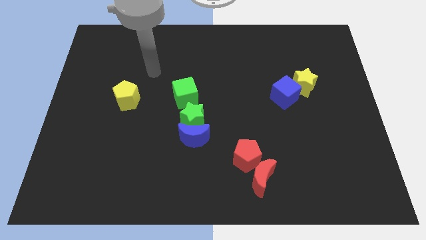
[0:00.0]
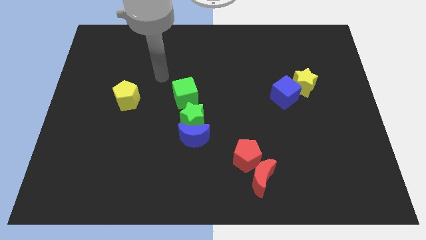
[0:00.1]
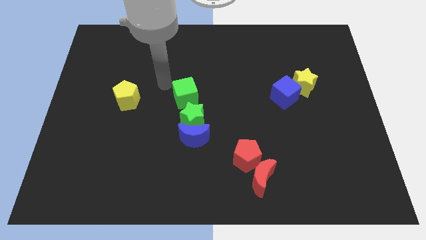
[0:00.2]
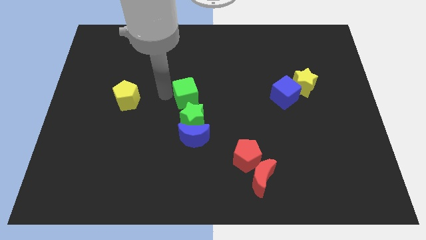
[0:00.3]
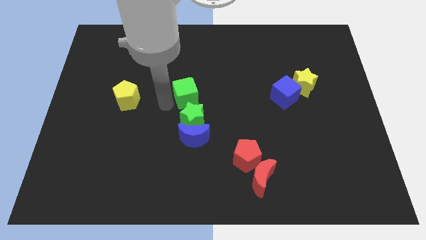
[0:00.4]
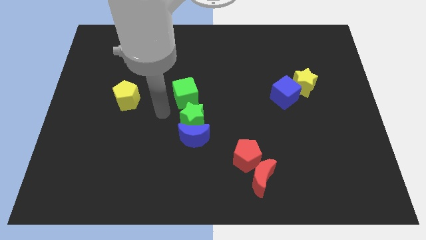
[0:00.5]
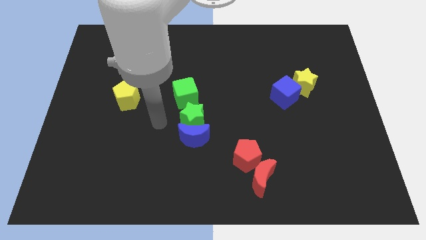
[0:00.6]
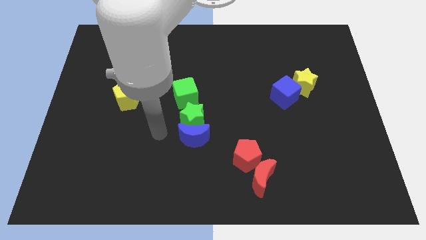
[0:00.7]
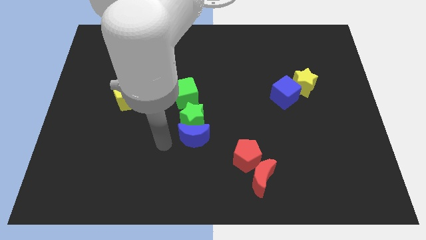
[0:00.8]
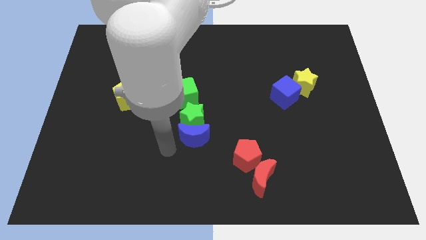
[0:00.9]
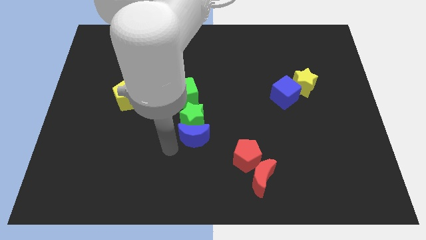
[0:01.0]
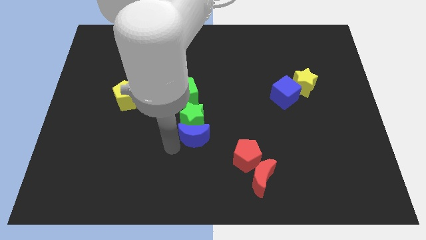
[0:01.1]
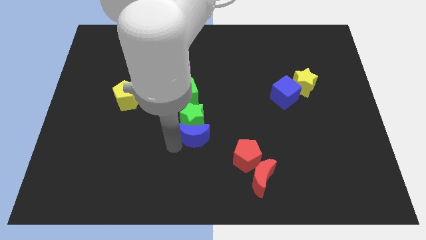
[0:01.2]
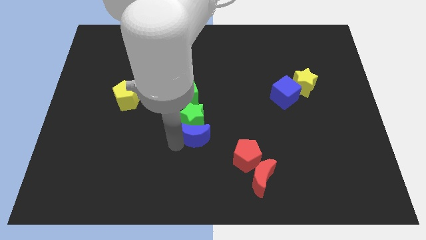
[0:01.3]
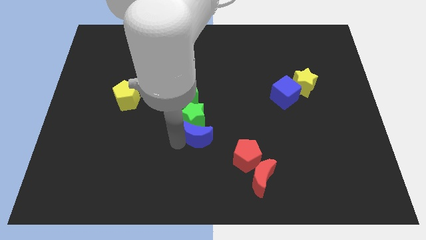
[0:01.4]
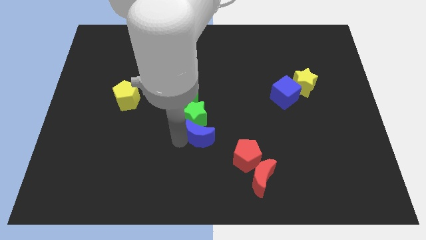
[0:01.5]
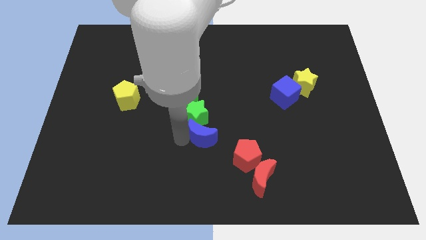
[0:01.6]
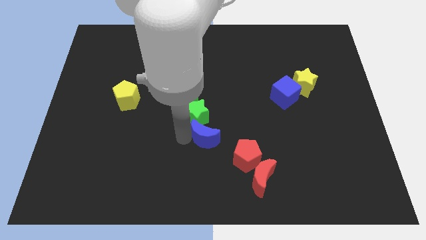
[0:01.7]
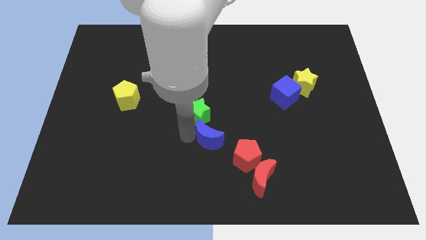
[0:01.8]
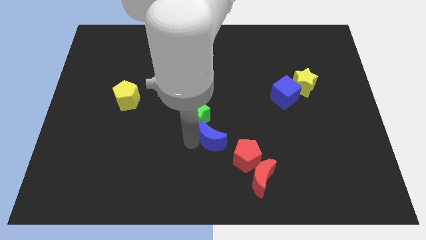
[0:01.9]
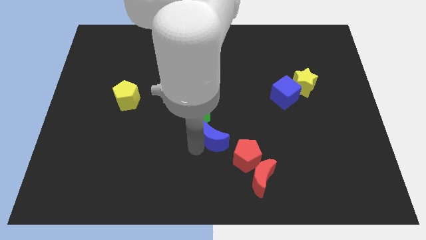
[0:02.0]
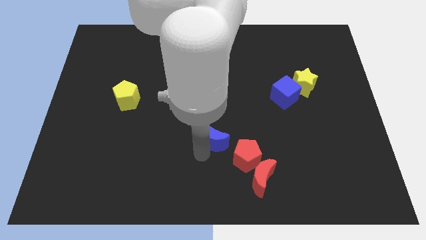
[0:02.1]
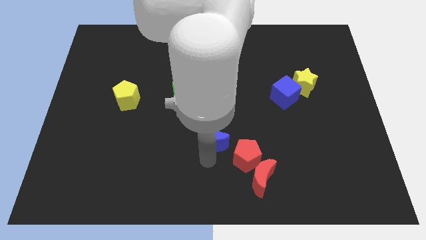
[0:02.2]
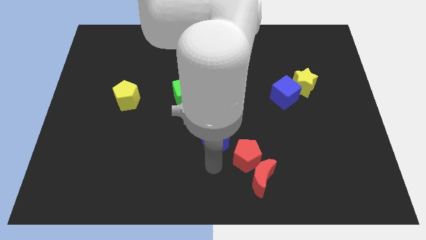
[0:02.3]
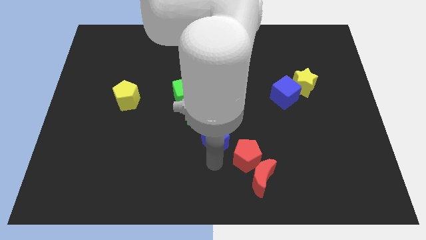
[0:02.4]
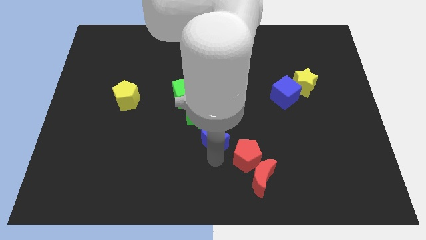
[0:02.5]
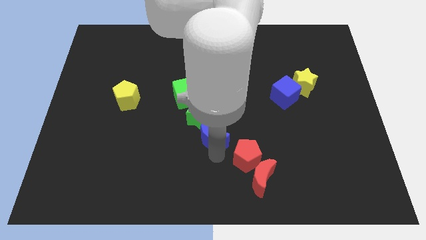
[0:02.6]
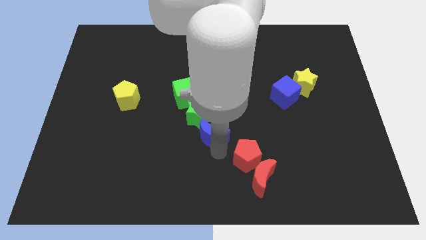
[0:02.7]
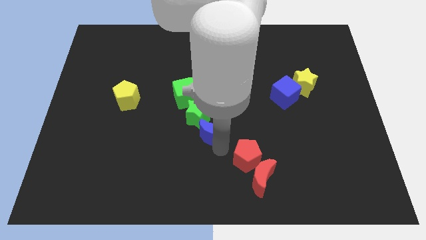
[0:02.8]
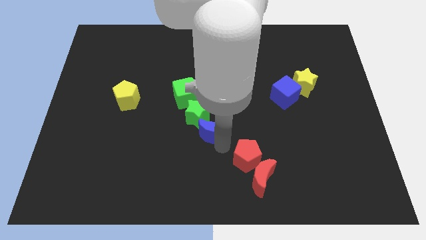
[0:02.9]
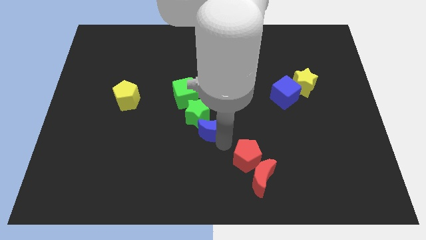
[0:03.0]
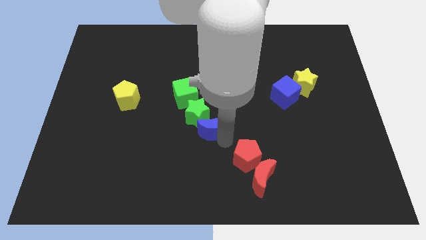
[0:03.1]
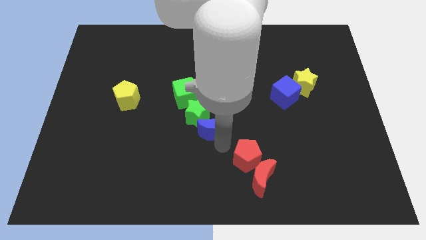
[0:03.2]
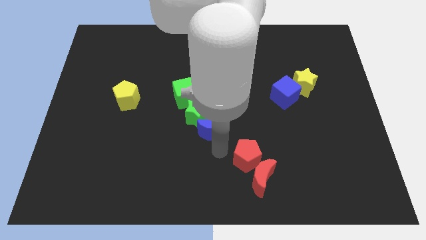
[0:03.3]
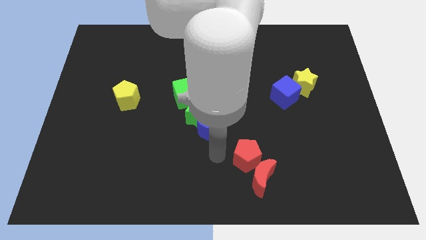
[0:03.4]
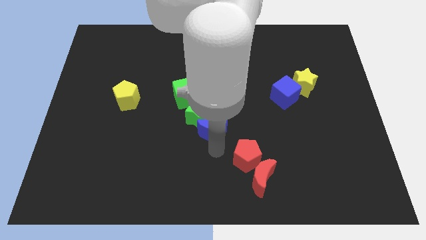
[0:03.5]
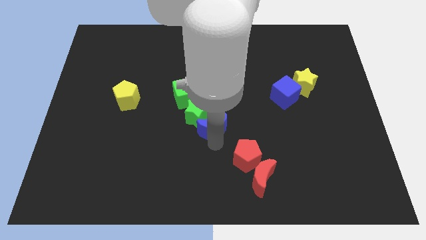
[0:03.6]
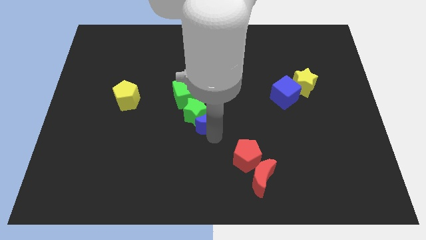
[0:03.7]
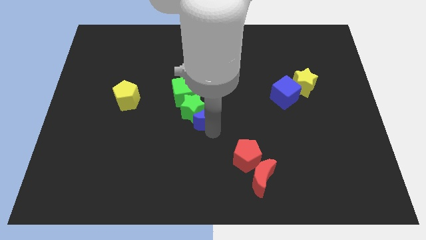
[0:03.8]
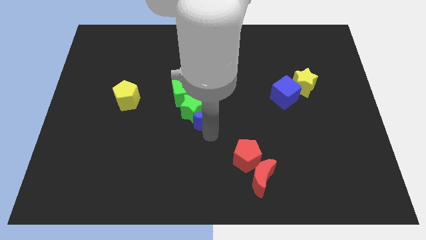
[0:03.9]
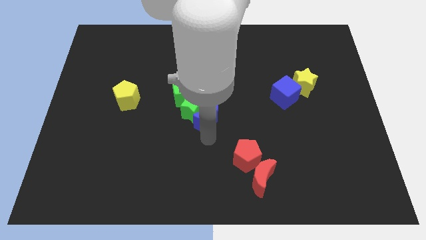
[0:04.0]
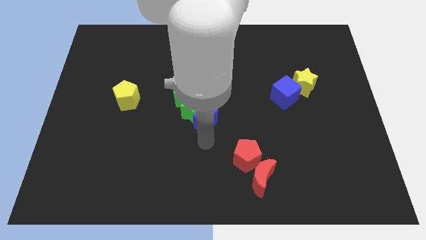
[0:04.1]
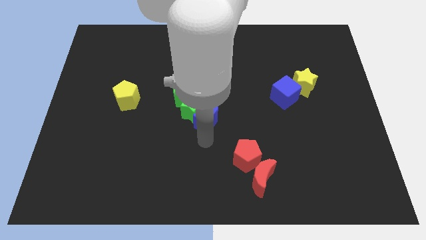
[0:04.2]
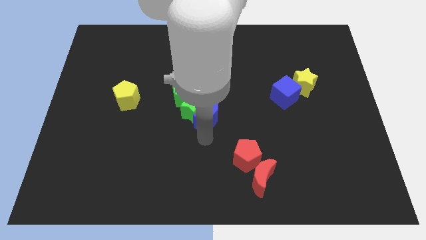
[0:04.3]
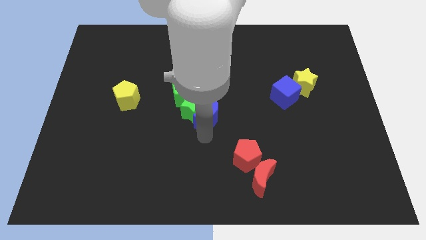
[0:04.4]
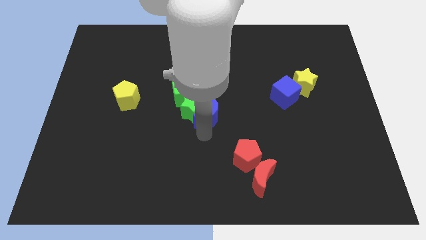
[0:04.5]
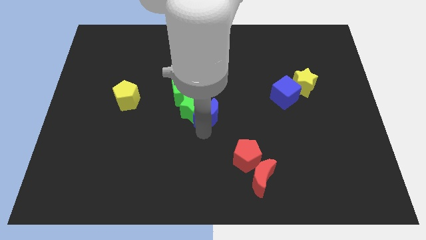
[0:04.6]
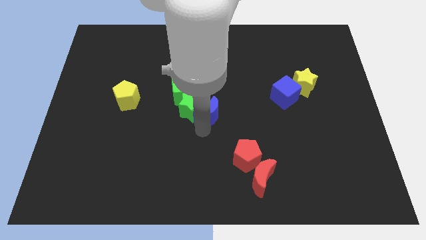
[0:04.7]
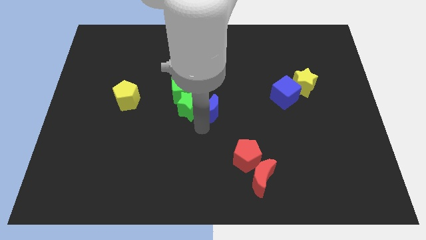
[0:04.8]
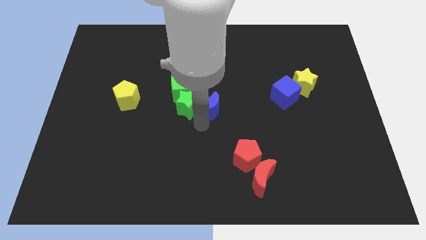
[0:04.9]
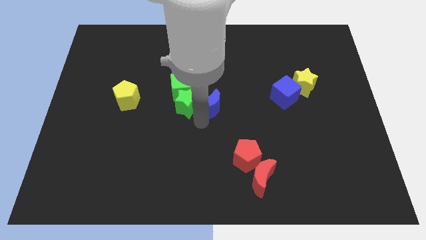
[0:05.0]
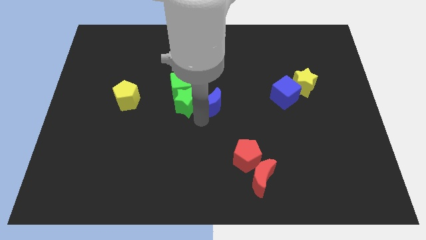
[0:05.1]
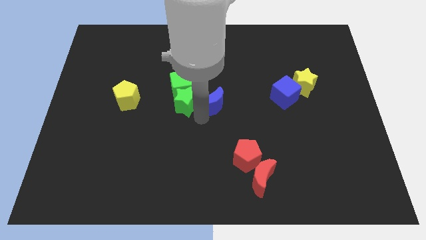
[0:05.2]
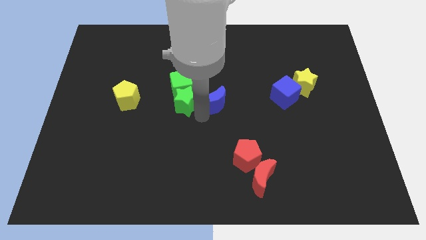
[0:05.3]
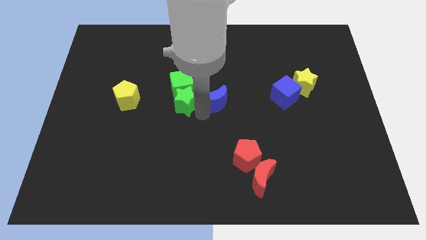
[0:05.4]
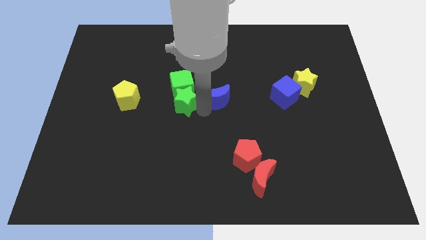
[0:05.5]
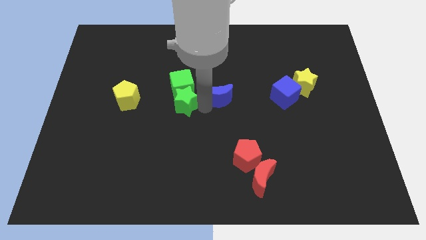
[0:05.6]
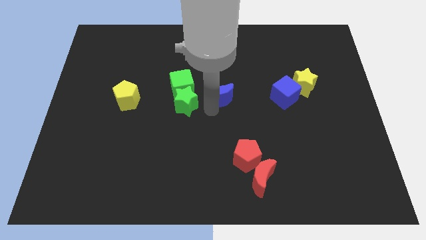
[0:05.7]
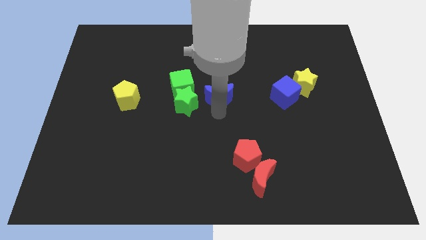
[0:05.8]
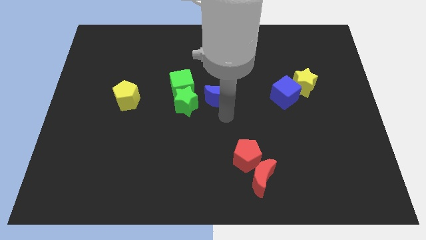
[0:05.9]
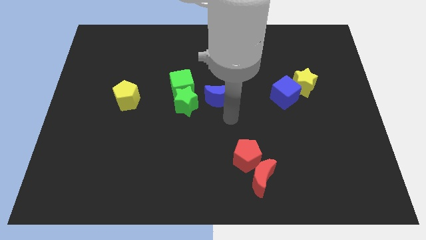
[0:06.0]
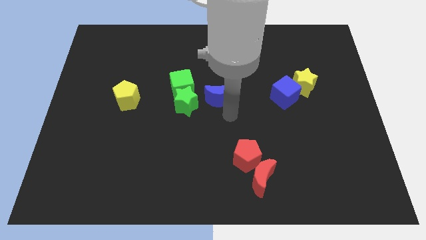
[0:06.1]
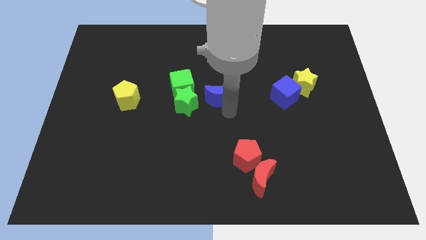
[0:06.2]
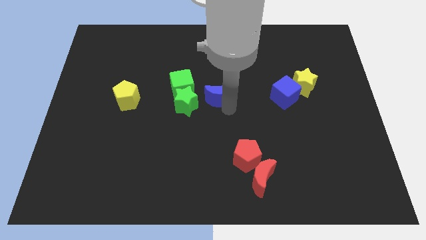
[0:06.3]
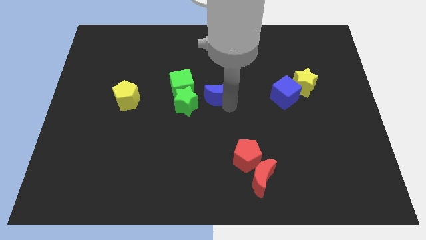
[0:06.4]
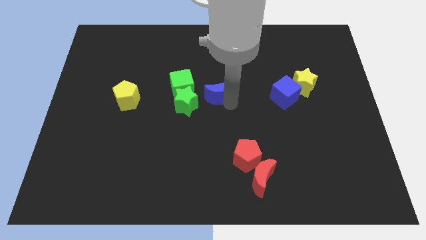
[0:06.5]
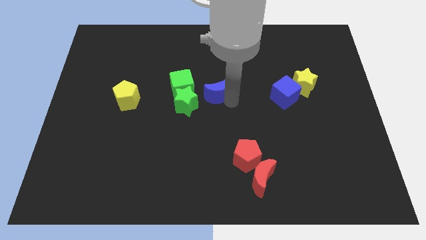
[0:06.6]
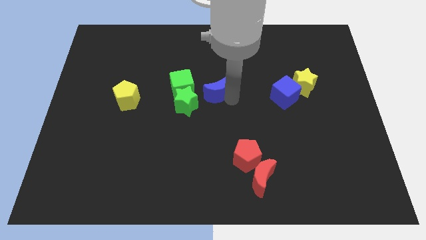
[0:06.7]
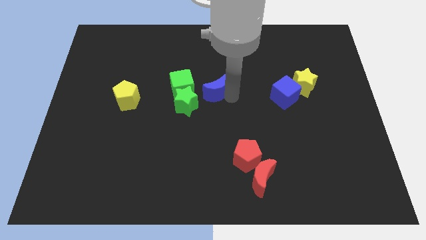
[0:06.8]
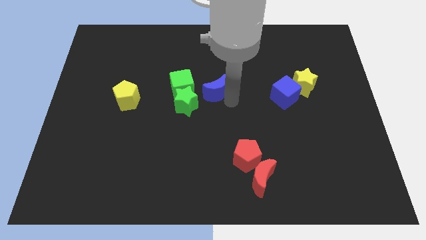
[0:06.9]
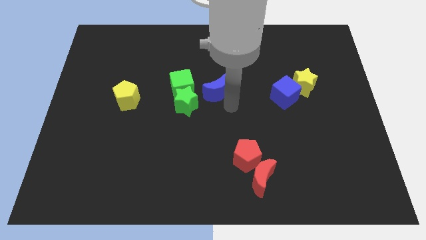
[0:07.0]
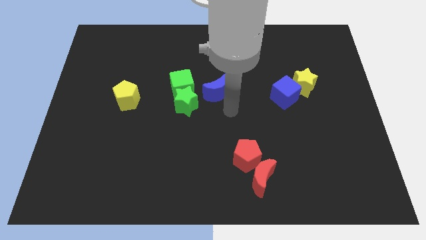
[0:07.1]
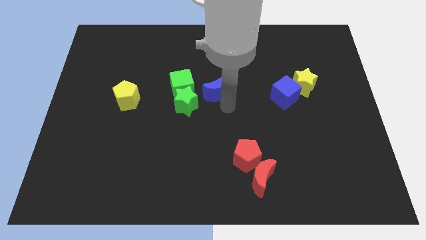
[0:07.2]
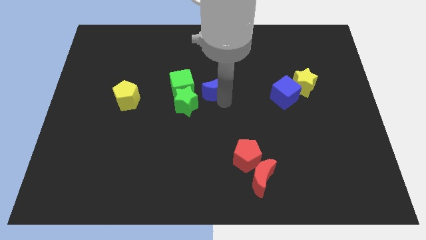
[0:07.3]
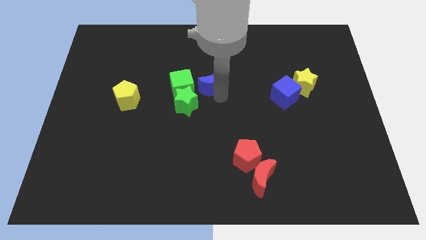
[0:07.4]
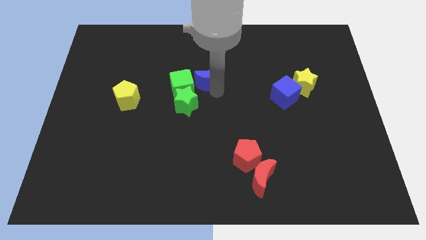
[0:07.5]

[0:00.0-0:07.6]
move the blue moon to the top right side of the green cube

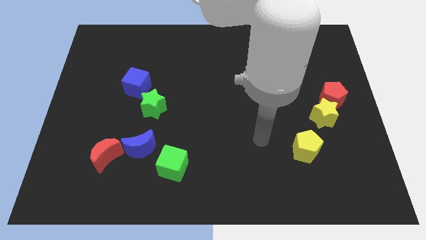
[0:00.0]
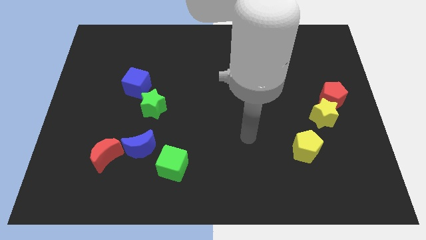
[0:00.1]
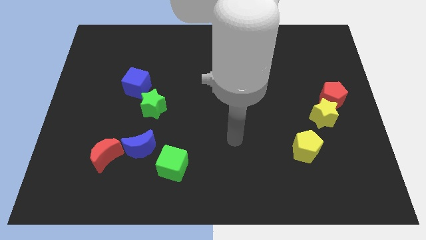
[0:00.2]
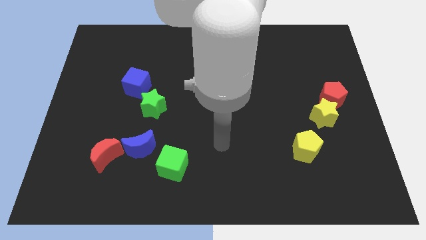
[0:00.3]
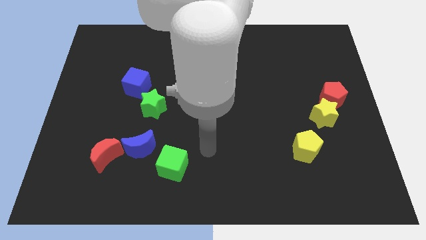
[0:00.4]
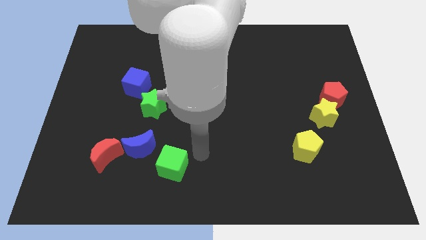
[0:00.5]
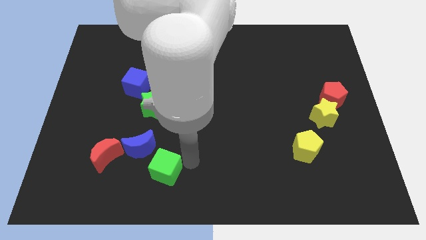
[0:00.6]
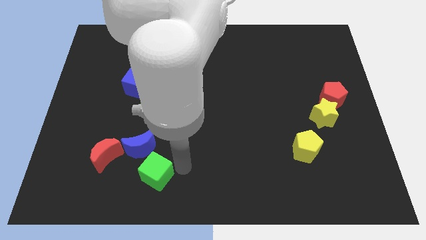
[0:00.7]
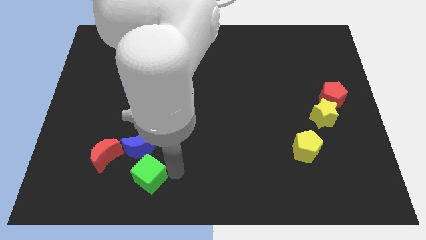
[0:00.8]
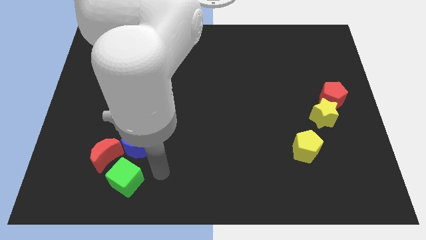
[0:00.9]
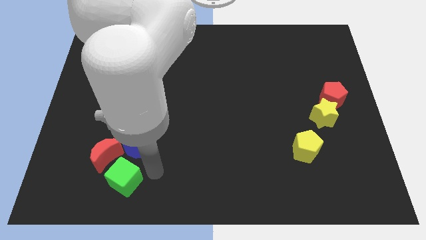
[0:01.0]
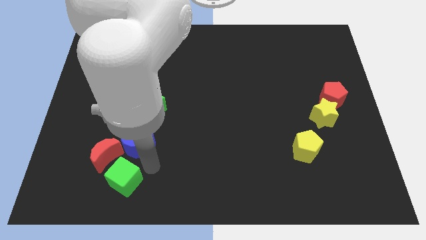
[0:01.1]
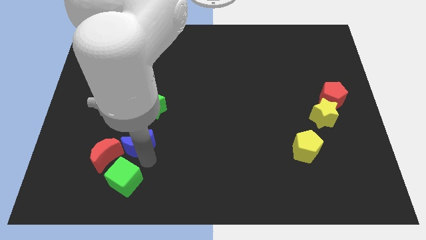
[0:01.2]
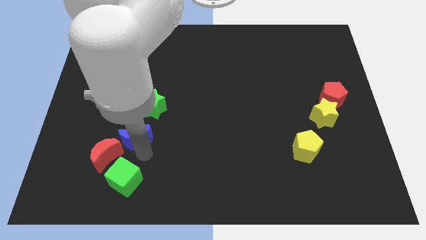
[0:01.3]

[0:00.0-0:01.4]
put the blue moon diagonally down and to the left of the green star
